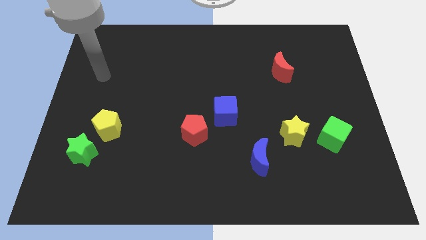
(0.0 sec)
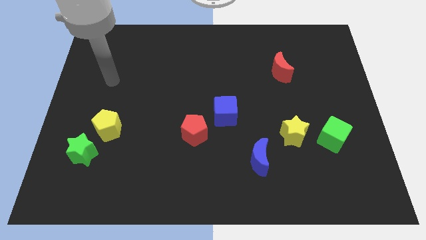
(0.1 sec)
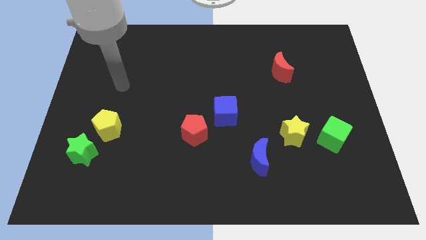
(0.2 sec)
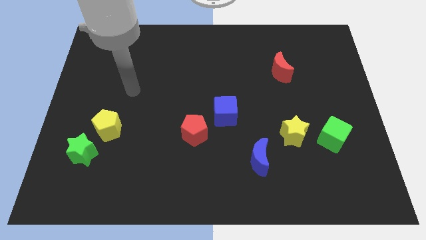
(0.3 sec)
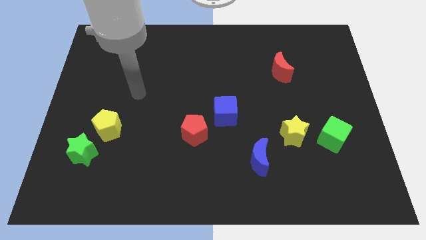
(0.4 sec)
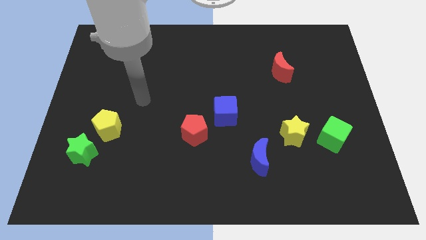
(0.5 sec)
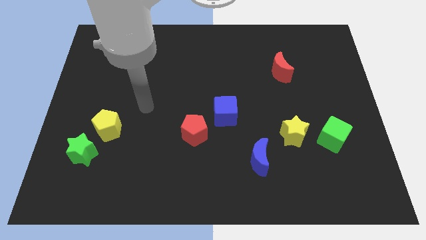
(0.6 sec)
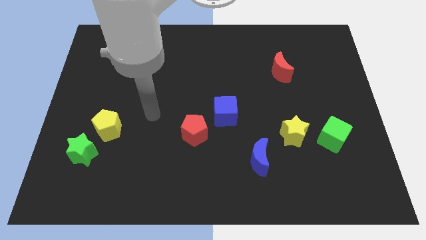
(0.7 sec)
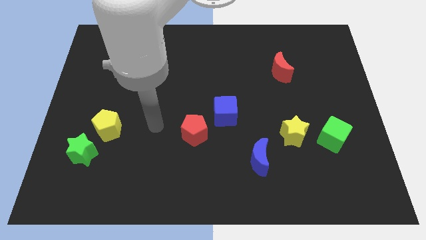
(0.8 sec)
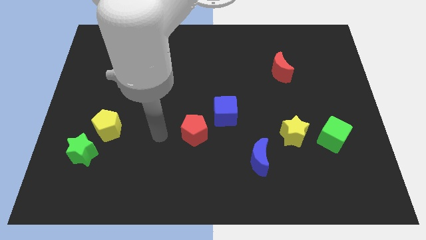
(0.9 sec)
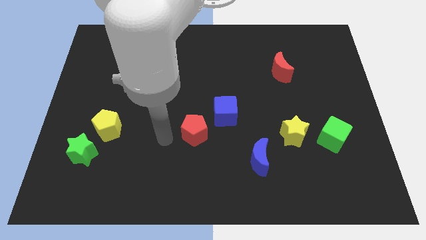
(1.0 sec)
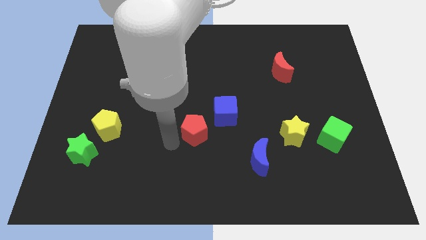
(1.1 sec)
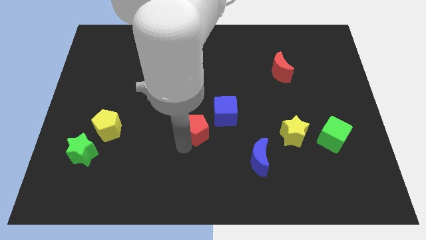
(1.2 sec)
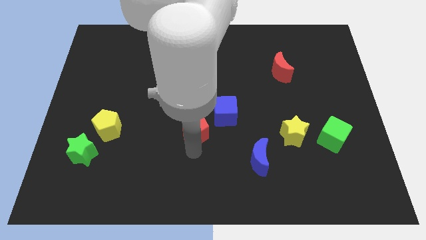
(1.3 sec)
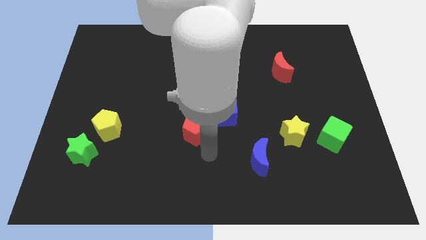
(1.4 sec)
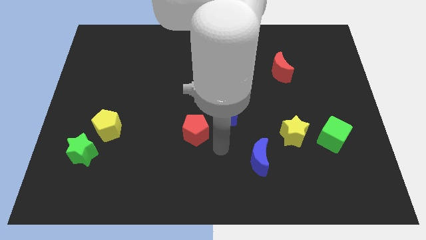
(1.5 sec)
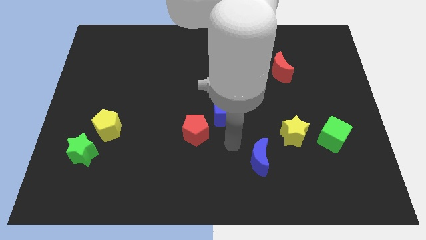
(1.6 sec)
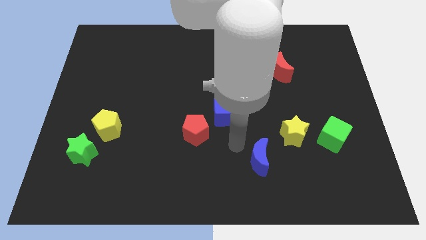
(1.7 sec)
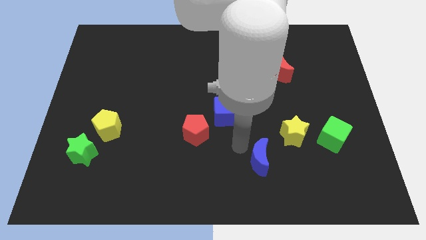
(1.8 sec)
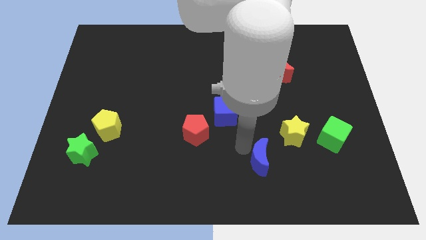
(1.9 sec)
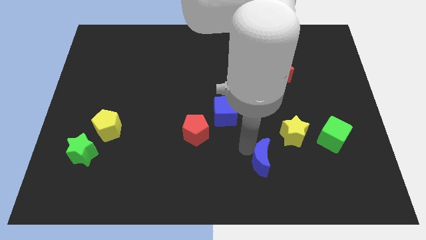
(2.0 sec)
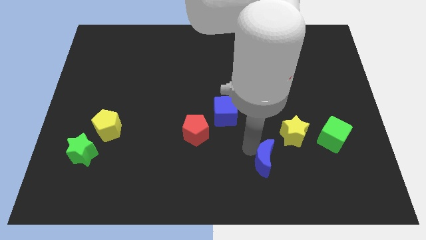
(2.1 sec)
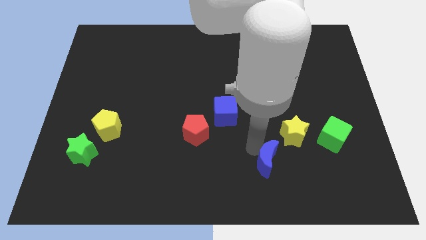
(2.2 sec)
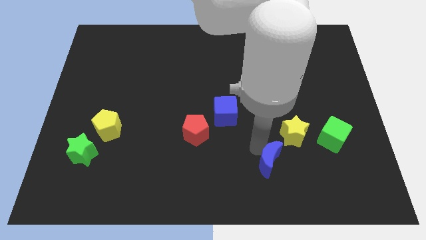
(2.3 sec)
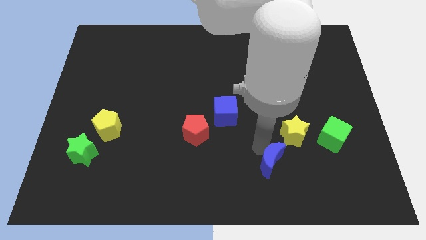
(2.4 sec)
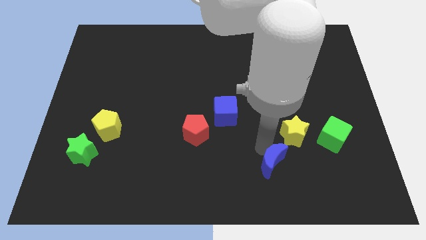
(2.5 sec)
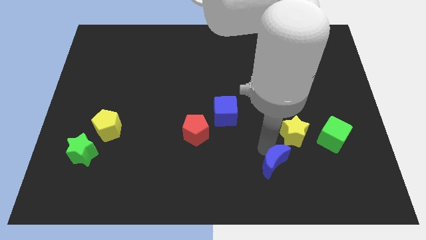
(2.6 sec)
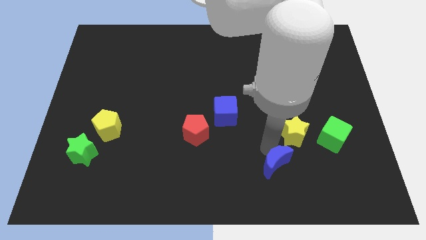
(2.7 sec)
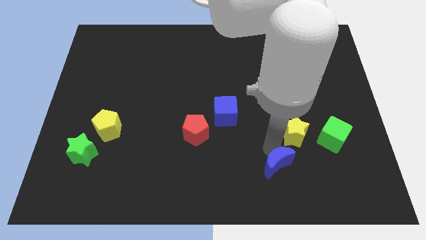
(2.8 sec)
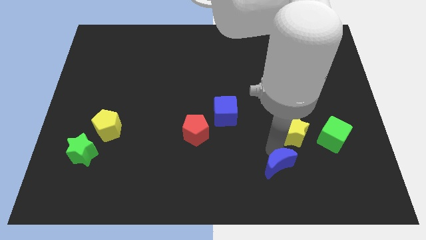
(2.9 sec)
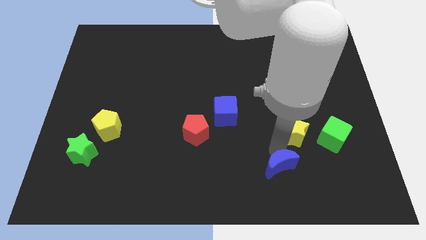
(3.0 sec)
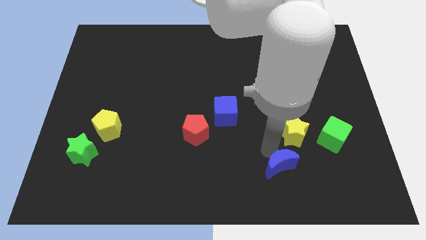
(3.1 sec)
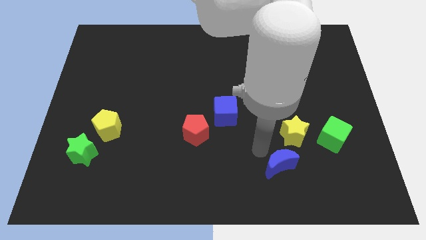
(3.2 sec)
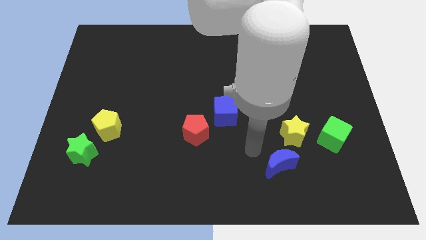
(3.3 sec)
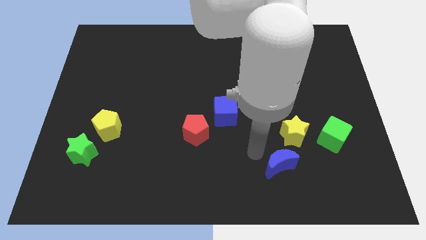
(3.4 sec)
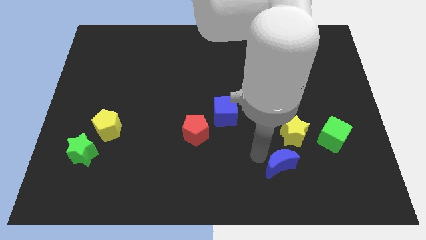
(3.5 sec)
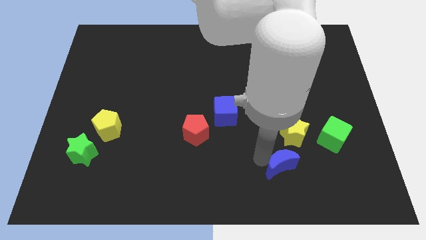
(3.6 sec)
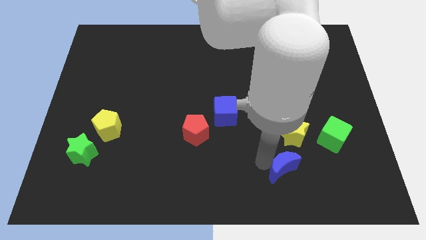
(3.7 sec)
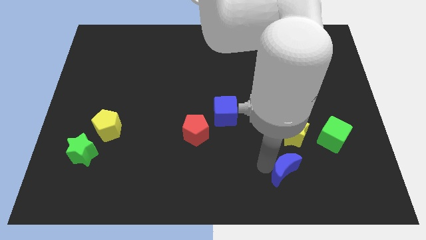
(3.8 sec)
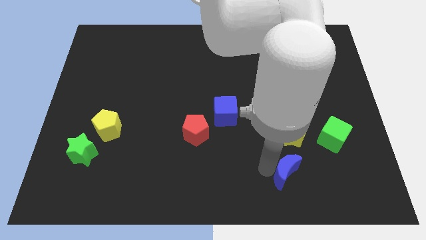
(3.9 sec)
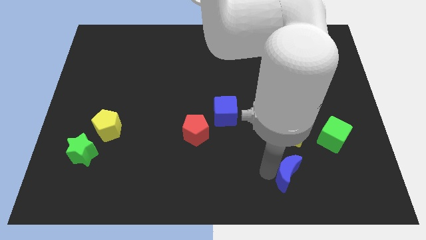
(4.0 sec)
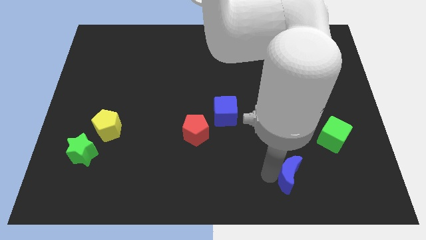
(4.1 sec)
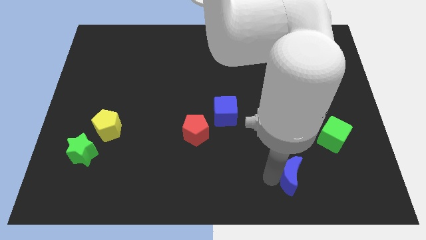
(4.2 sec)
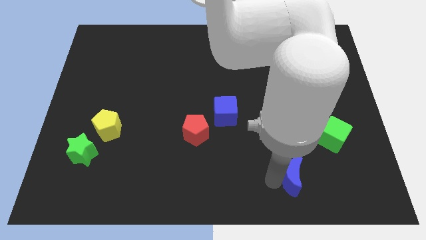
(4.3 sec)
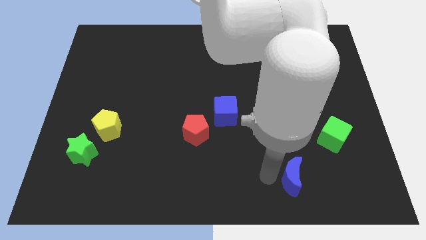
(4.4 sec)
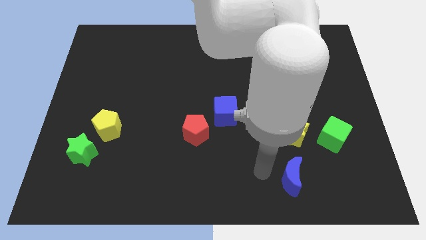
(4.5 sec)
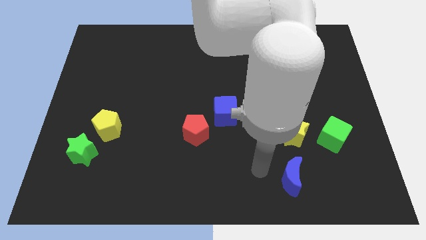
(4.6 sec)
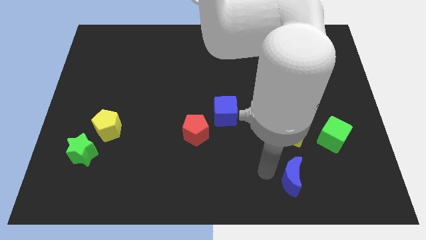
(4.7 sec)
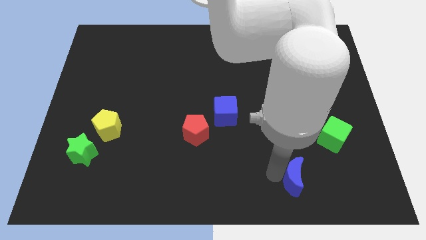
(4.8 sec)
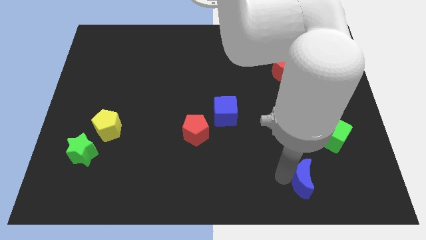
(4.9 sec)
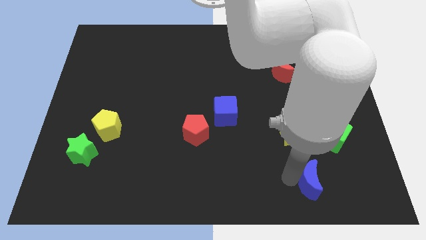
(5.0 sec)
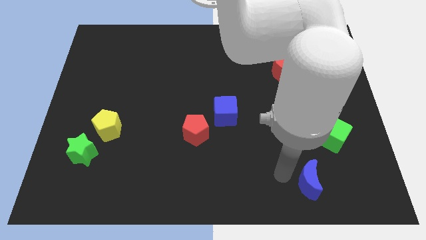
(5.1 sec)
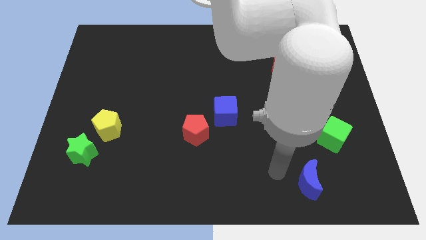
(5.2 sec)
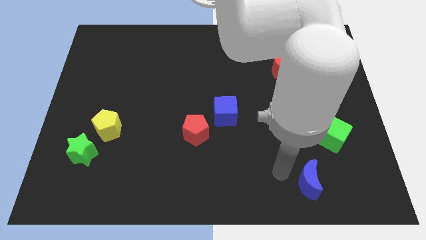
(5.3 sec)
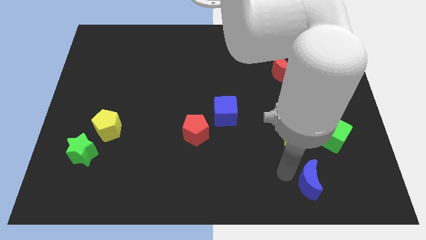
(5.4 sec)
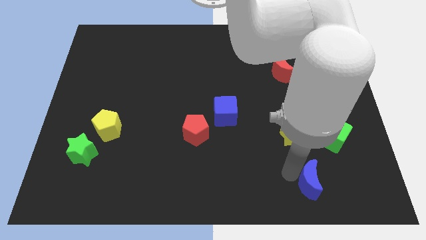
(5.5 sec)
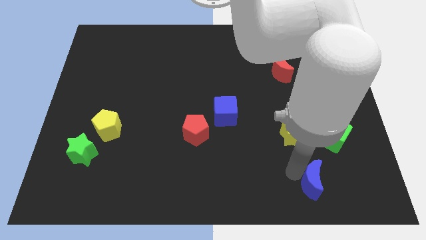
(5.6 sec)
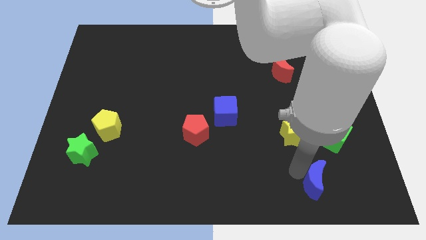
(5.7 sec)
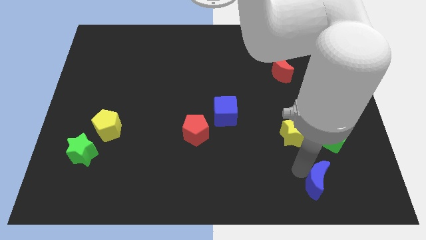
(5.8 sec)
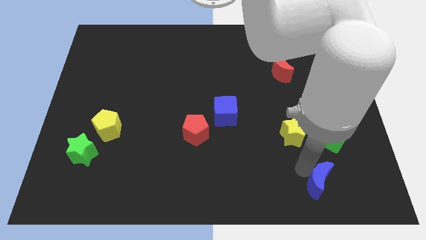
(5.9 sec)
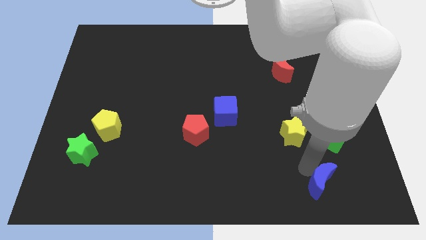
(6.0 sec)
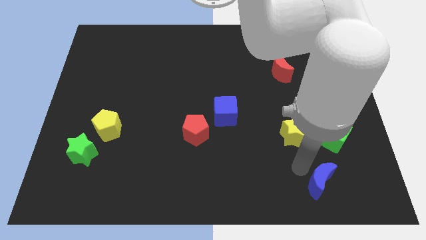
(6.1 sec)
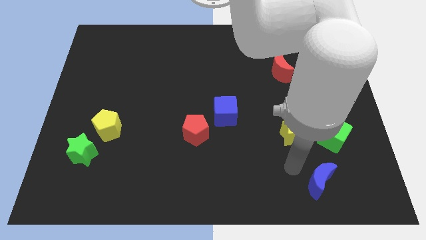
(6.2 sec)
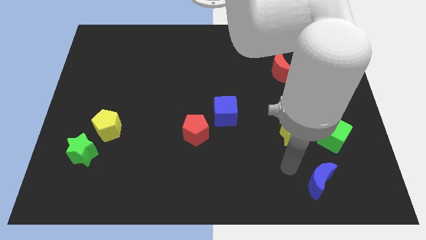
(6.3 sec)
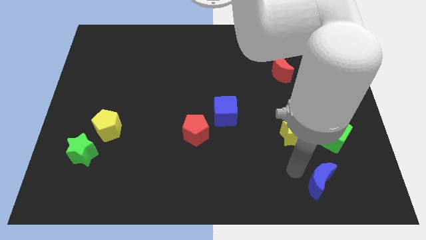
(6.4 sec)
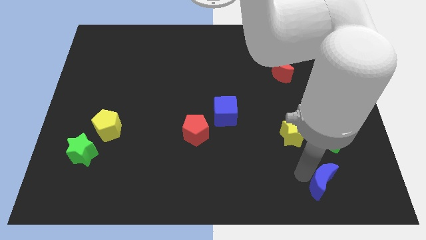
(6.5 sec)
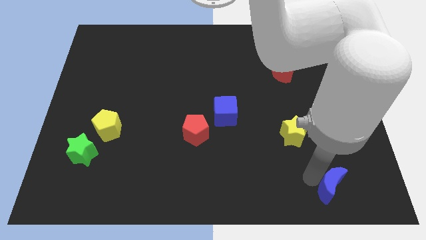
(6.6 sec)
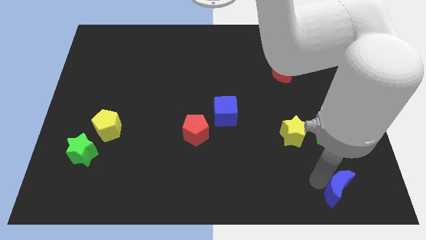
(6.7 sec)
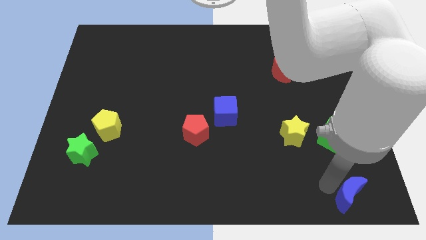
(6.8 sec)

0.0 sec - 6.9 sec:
move the blue moon to the bottom right
